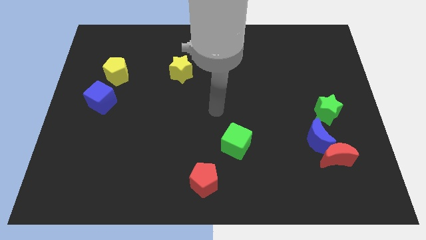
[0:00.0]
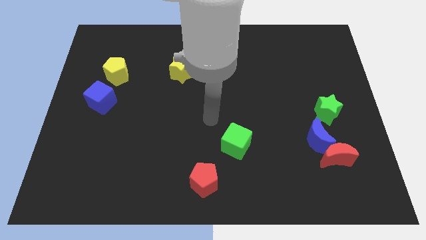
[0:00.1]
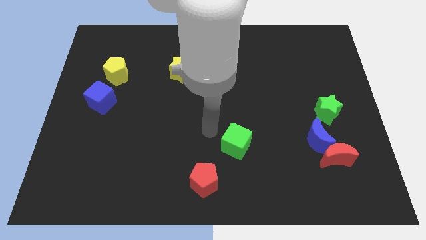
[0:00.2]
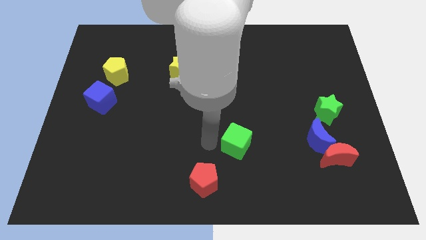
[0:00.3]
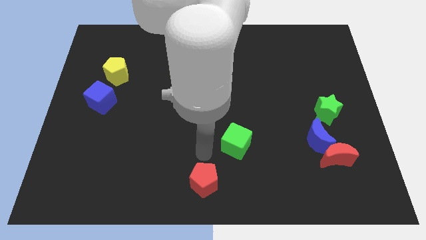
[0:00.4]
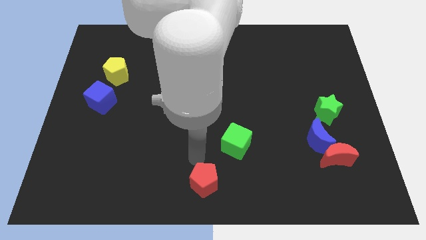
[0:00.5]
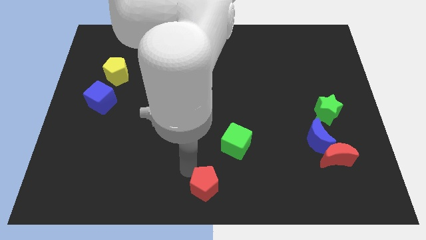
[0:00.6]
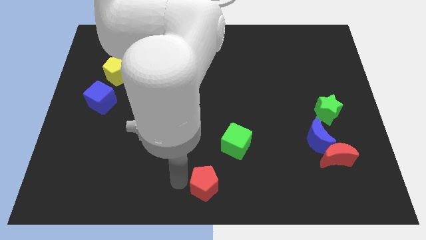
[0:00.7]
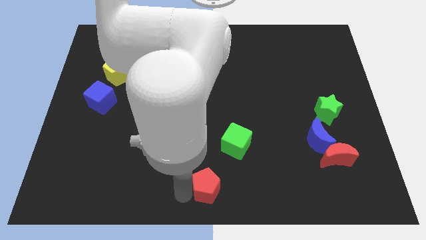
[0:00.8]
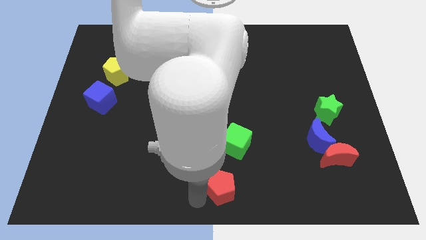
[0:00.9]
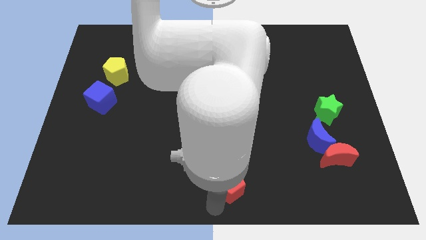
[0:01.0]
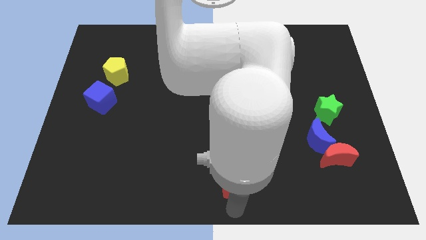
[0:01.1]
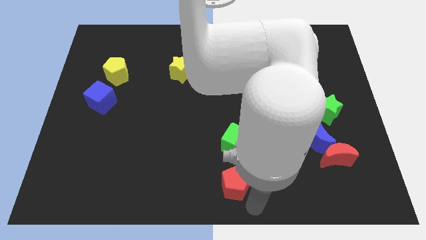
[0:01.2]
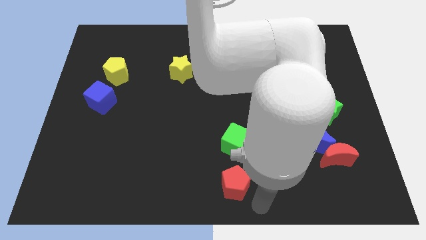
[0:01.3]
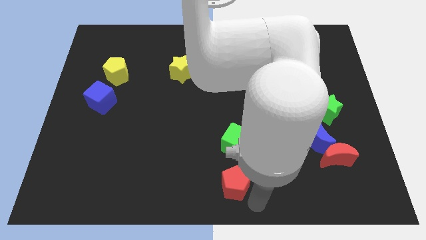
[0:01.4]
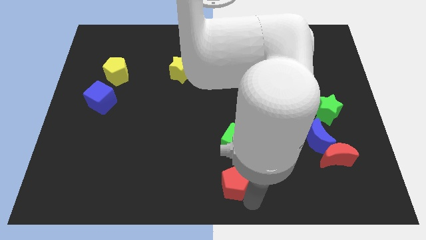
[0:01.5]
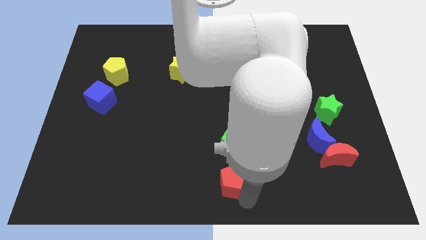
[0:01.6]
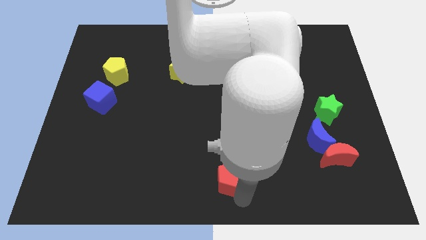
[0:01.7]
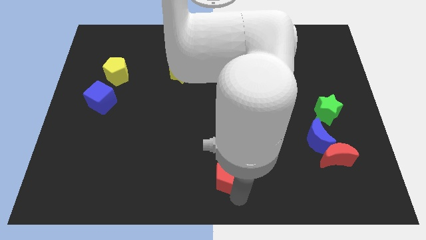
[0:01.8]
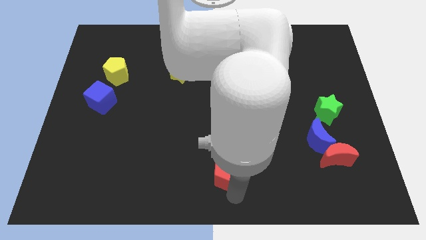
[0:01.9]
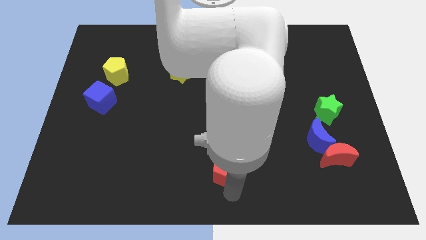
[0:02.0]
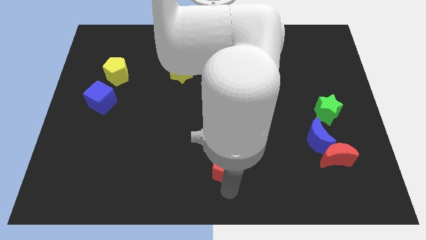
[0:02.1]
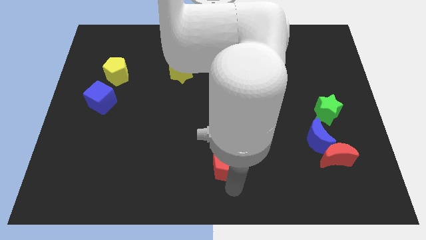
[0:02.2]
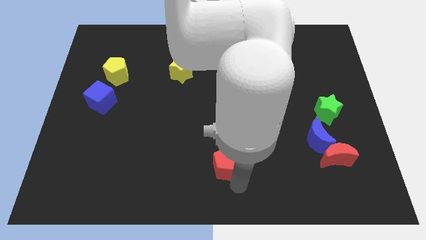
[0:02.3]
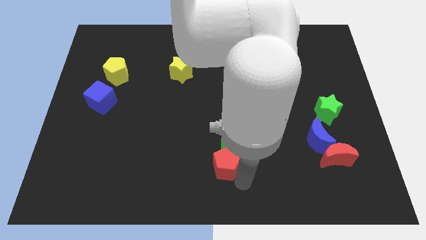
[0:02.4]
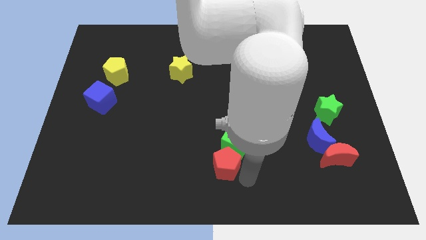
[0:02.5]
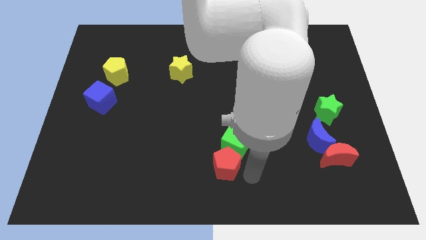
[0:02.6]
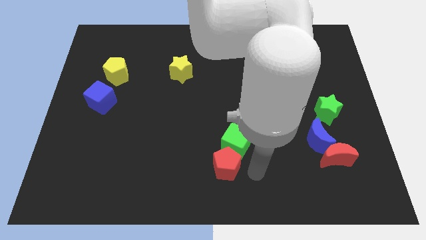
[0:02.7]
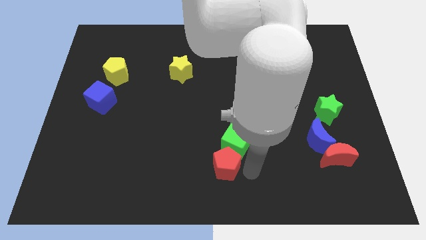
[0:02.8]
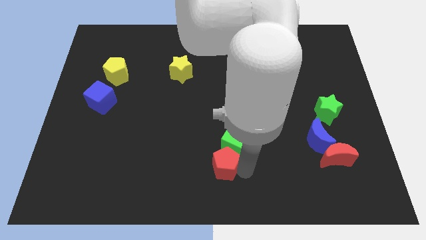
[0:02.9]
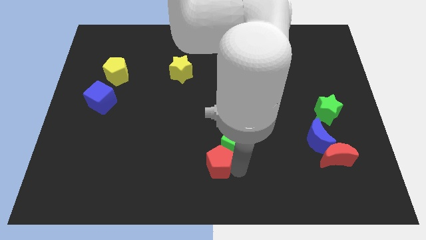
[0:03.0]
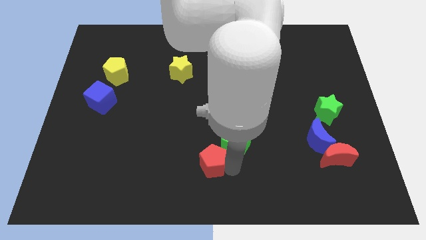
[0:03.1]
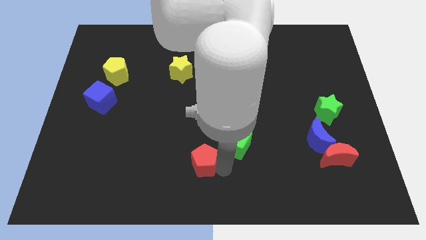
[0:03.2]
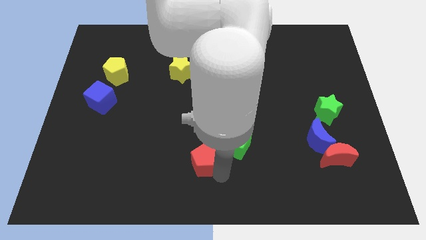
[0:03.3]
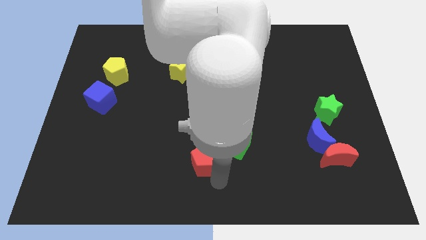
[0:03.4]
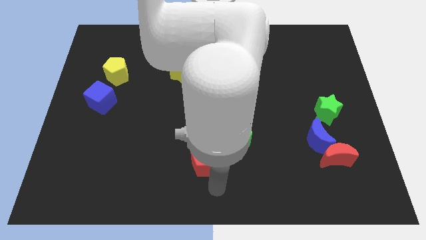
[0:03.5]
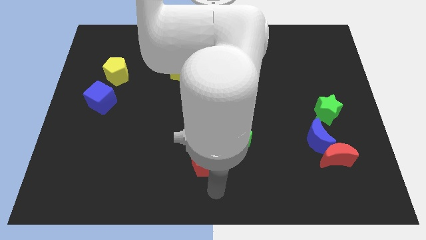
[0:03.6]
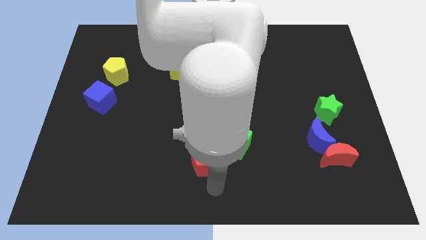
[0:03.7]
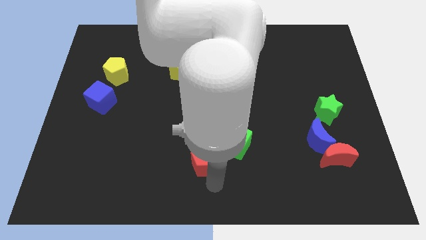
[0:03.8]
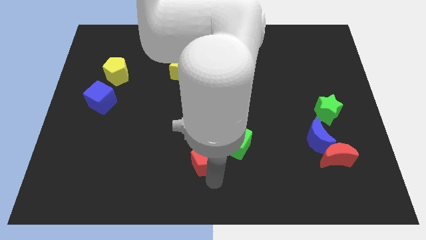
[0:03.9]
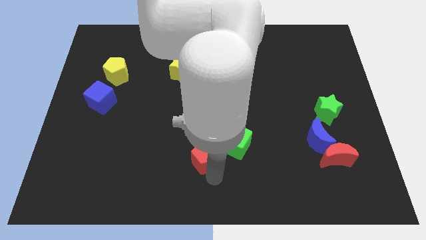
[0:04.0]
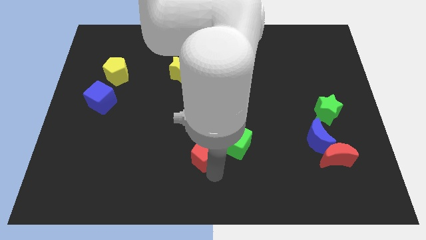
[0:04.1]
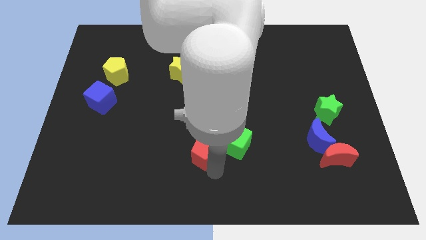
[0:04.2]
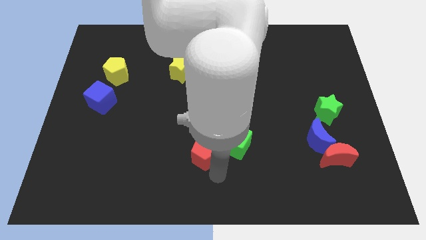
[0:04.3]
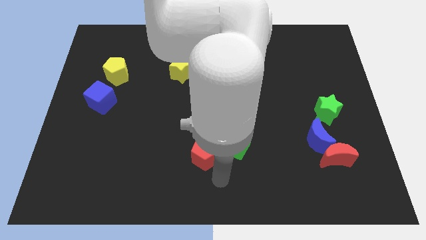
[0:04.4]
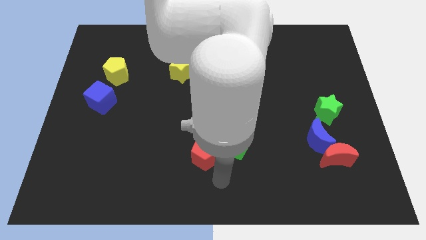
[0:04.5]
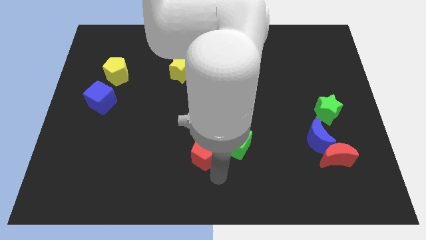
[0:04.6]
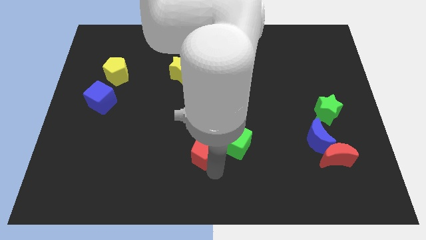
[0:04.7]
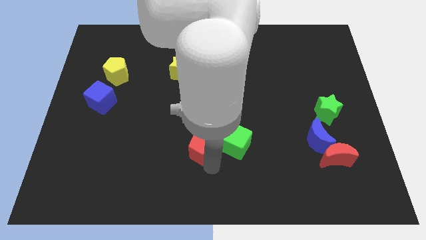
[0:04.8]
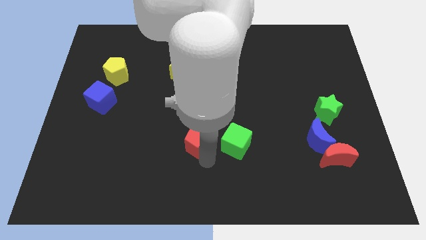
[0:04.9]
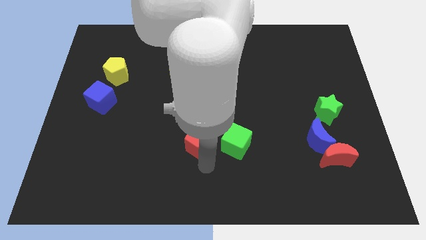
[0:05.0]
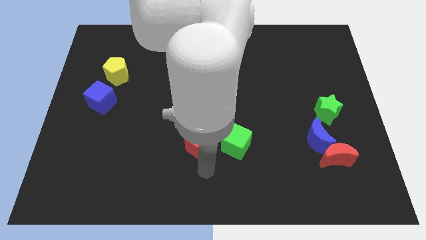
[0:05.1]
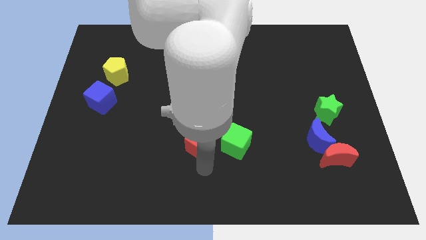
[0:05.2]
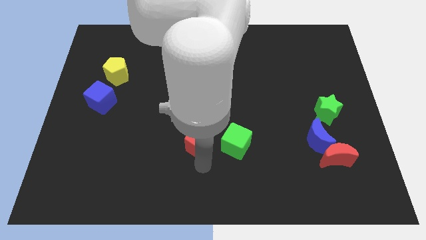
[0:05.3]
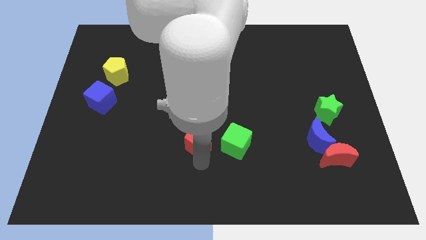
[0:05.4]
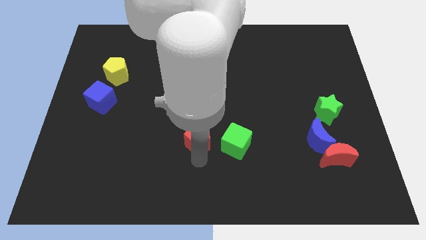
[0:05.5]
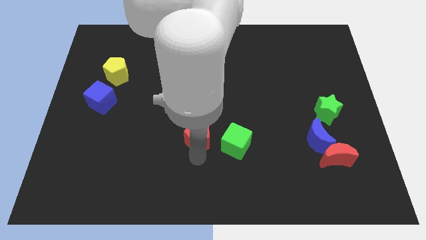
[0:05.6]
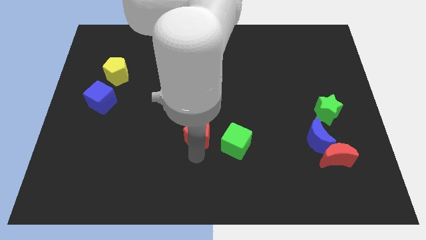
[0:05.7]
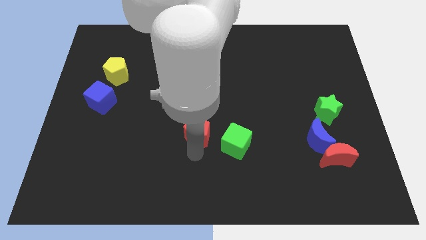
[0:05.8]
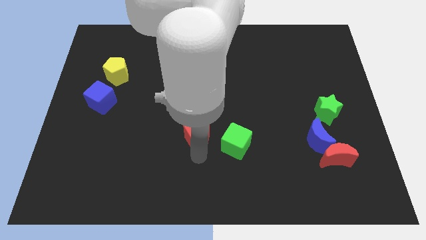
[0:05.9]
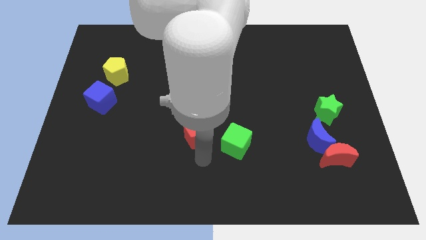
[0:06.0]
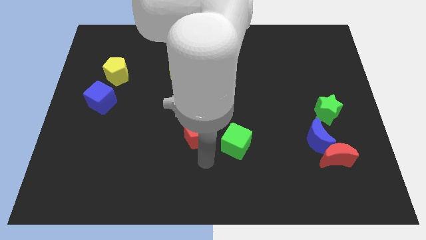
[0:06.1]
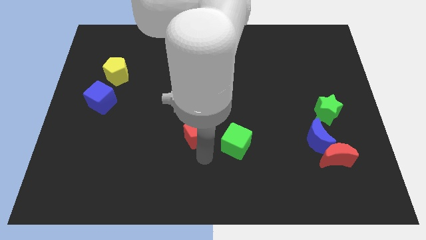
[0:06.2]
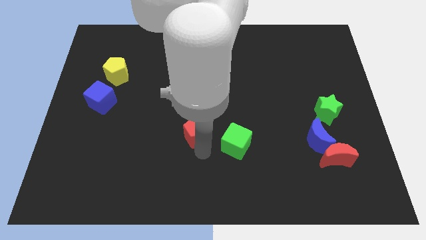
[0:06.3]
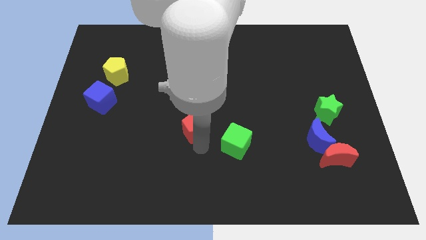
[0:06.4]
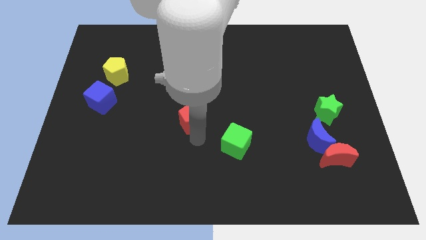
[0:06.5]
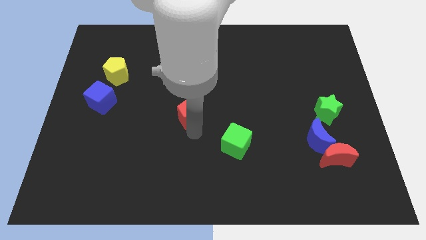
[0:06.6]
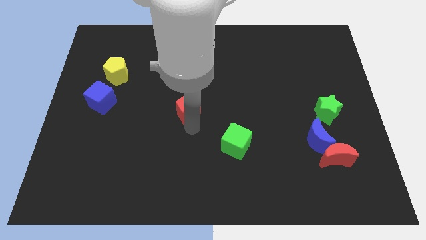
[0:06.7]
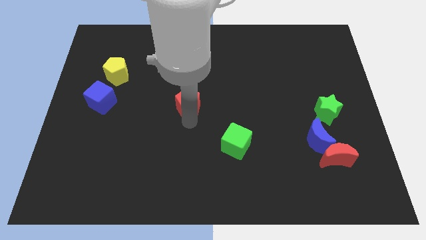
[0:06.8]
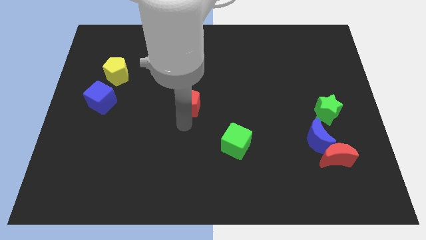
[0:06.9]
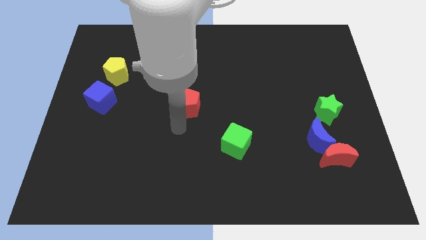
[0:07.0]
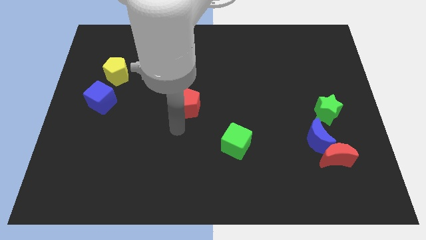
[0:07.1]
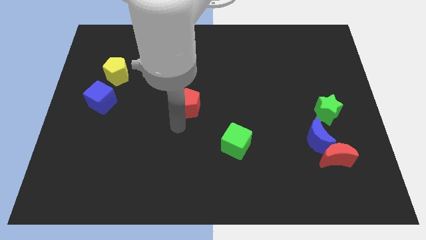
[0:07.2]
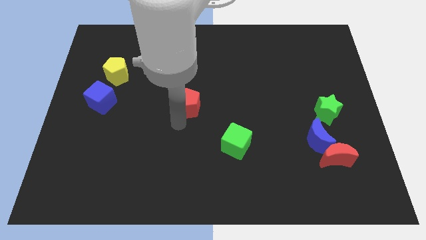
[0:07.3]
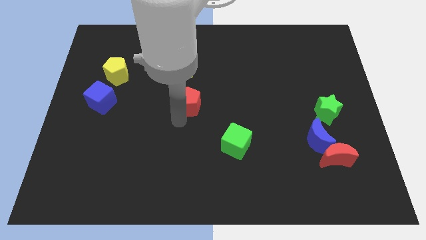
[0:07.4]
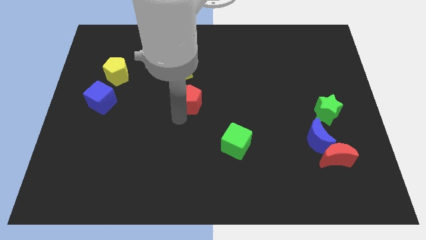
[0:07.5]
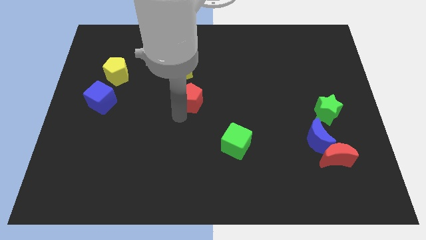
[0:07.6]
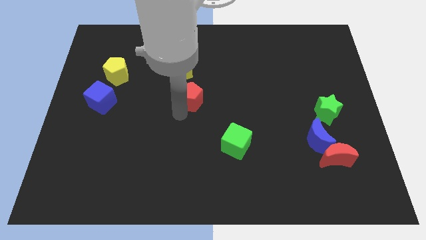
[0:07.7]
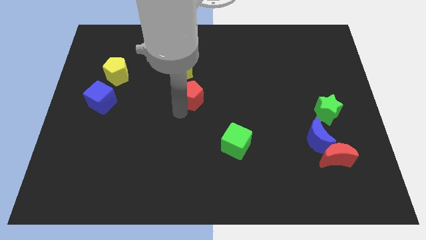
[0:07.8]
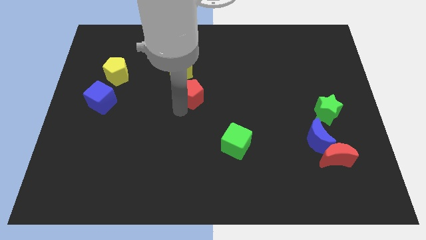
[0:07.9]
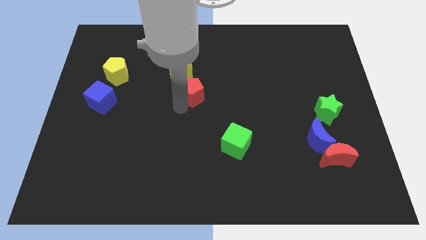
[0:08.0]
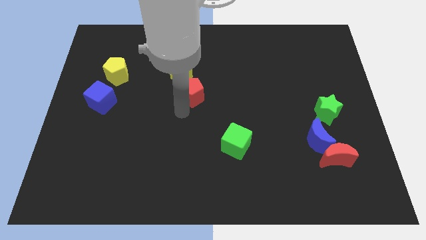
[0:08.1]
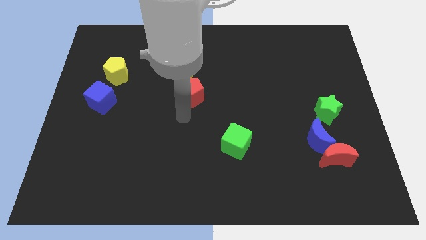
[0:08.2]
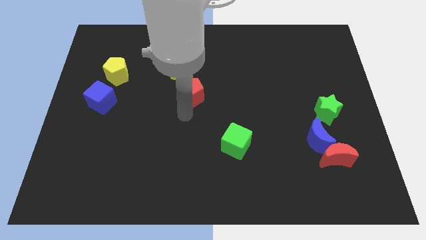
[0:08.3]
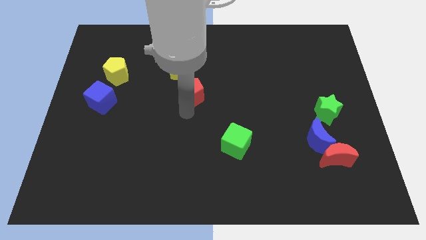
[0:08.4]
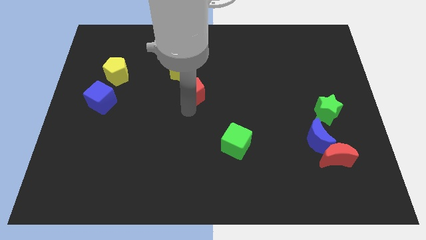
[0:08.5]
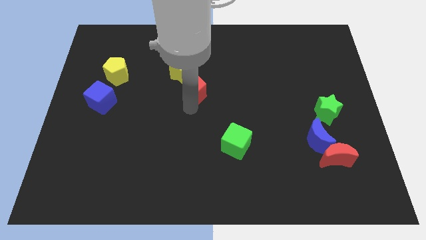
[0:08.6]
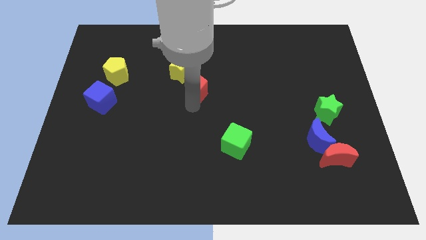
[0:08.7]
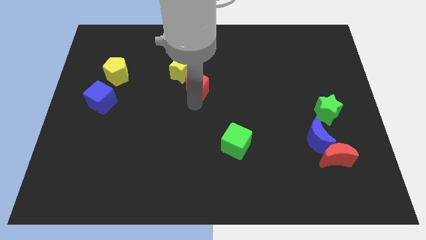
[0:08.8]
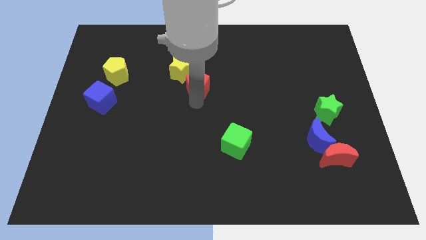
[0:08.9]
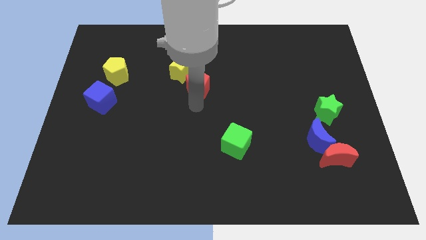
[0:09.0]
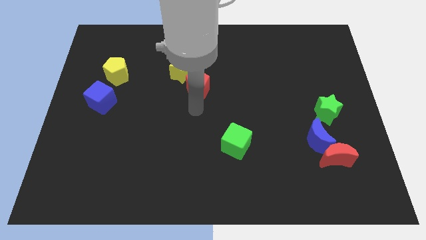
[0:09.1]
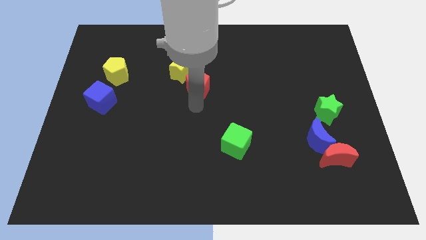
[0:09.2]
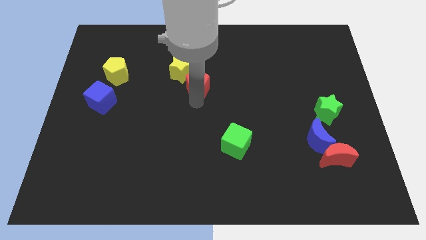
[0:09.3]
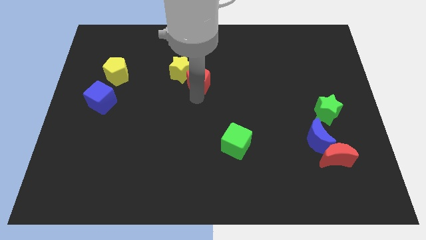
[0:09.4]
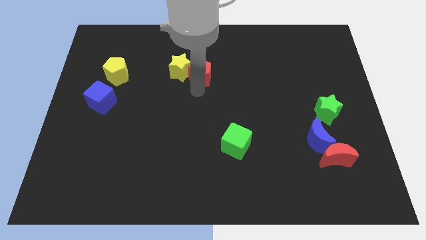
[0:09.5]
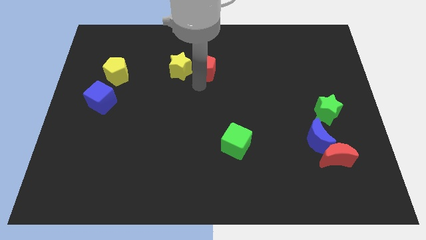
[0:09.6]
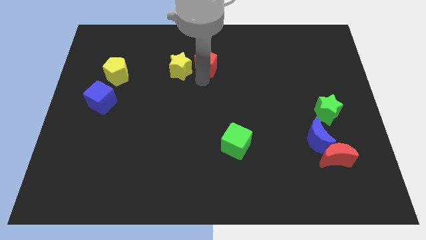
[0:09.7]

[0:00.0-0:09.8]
put the red pentagon to the top right of the yellow star
